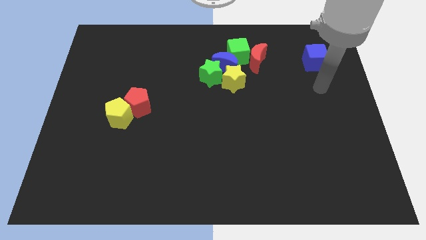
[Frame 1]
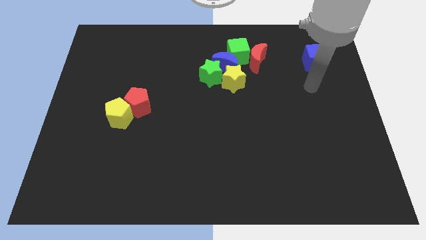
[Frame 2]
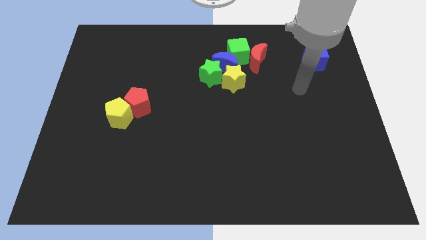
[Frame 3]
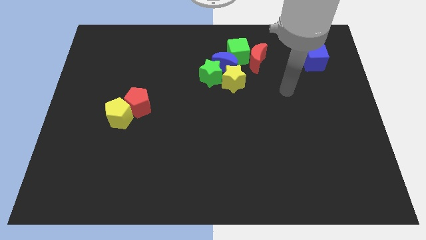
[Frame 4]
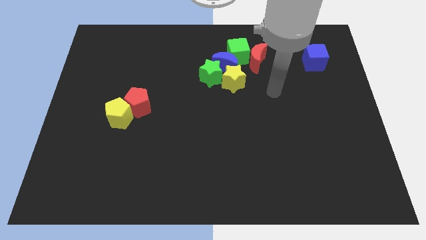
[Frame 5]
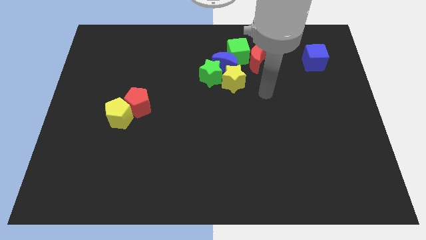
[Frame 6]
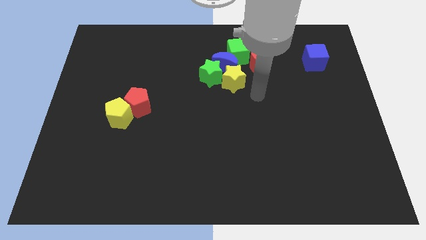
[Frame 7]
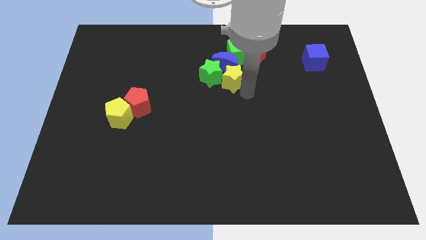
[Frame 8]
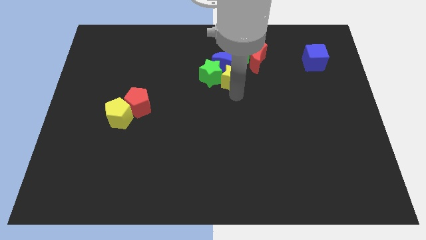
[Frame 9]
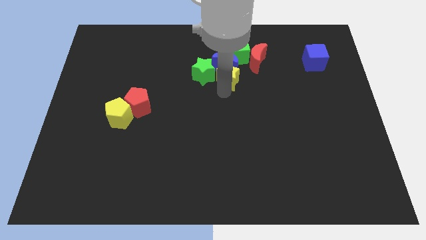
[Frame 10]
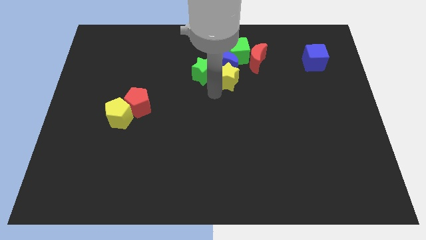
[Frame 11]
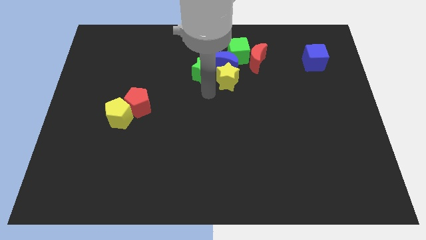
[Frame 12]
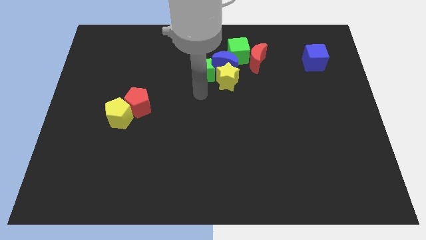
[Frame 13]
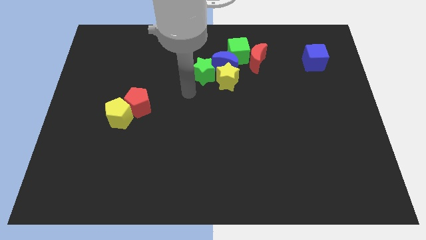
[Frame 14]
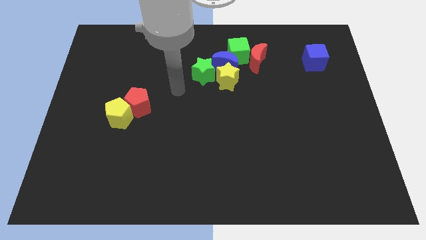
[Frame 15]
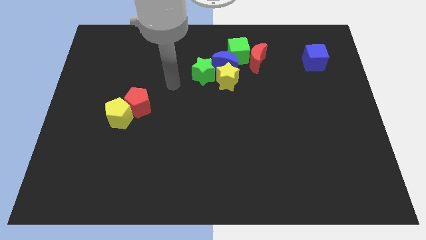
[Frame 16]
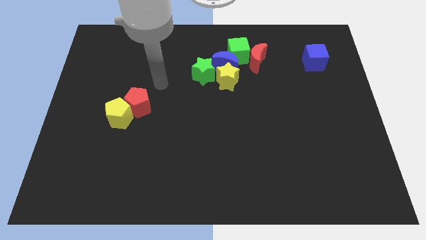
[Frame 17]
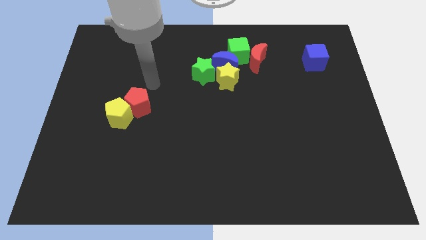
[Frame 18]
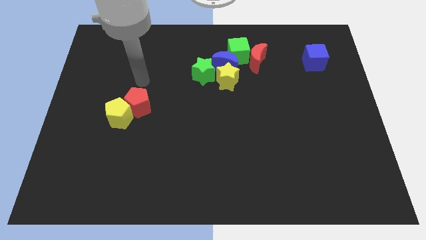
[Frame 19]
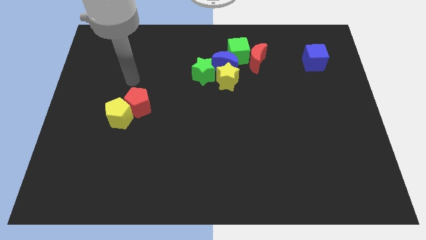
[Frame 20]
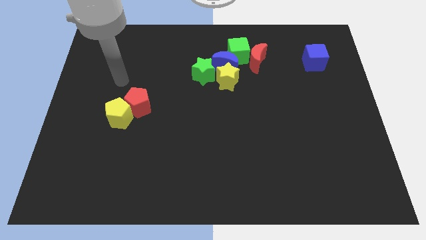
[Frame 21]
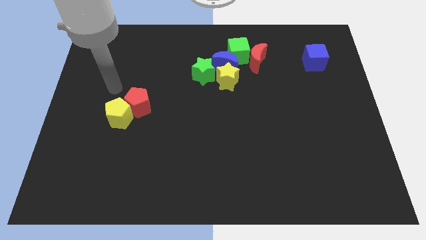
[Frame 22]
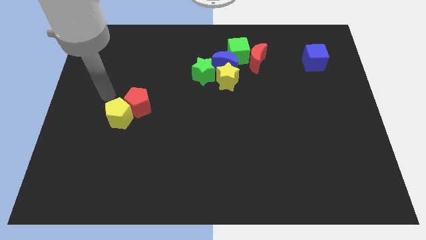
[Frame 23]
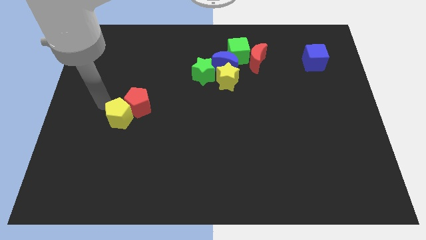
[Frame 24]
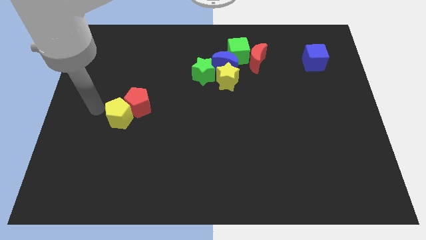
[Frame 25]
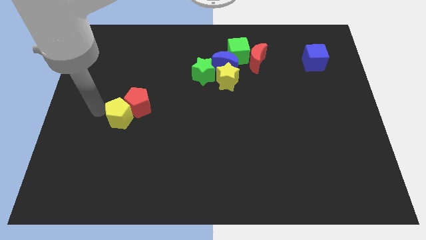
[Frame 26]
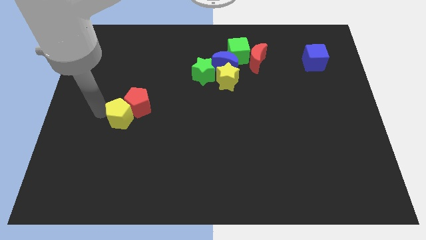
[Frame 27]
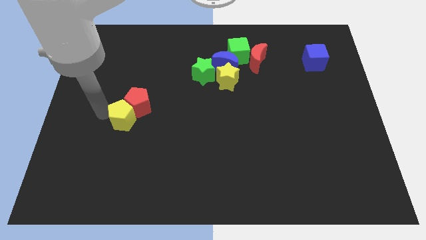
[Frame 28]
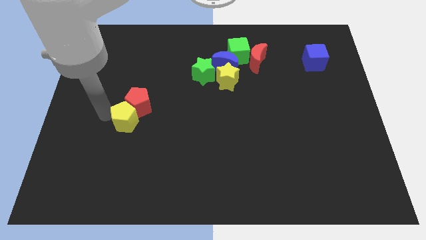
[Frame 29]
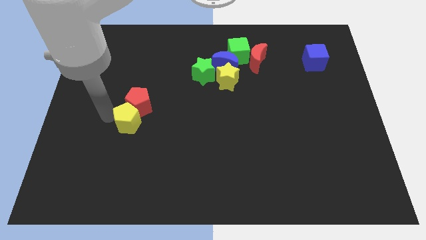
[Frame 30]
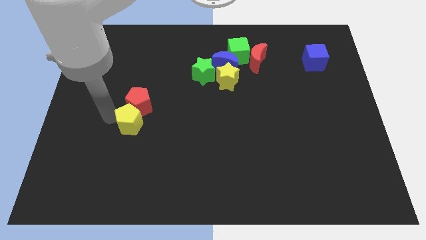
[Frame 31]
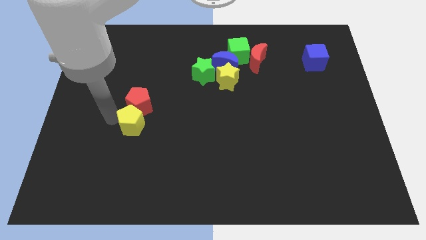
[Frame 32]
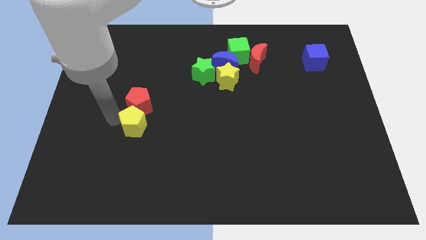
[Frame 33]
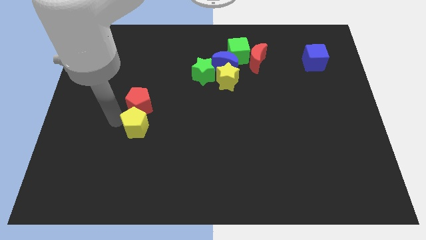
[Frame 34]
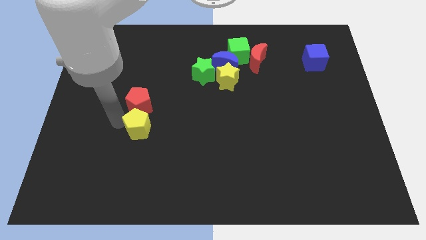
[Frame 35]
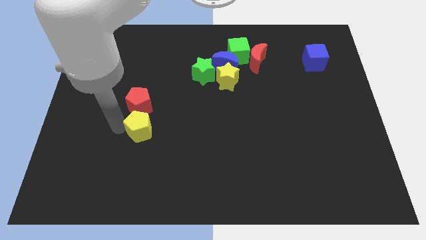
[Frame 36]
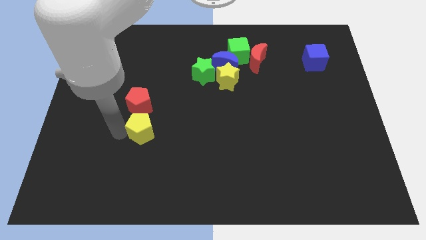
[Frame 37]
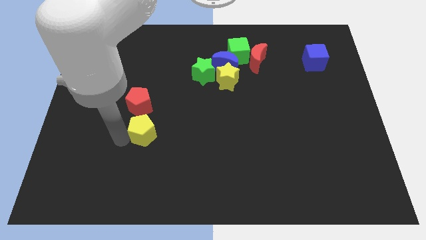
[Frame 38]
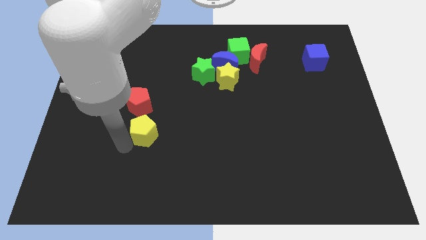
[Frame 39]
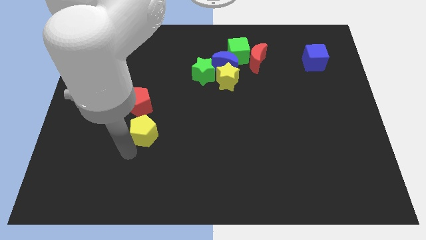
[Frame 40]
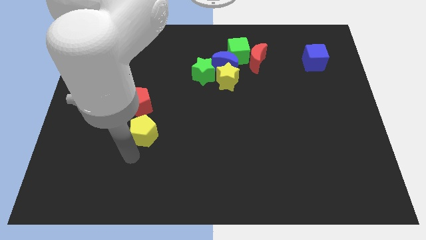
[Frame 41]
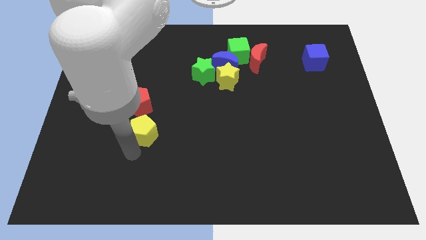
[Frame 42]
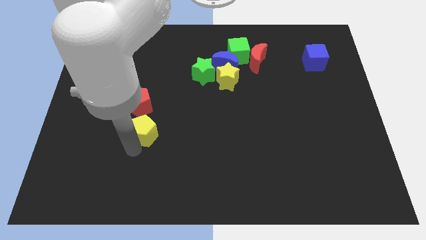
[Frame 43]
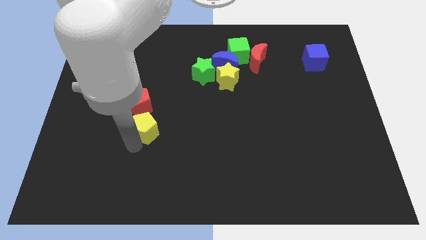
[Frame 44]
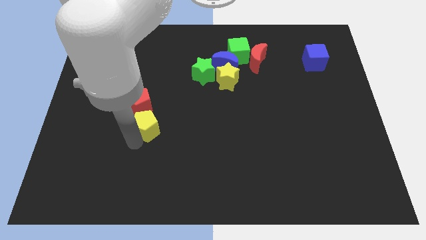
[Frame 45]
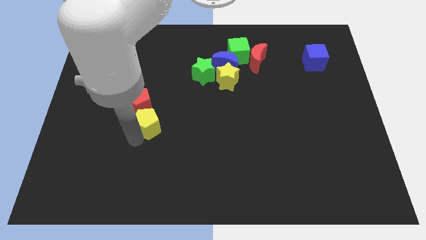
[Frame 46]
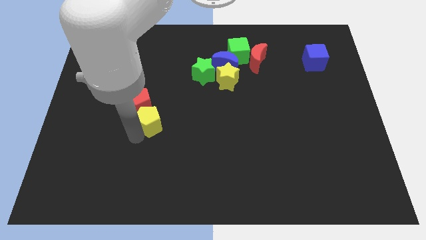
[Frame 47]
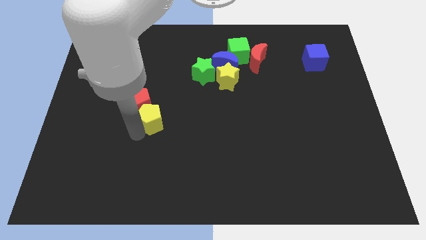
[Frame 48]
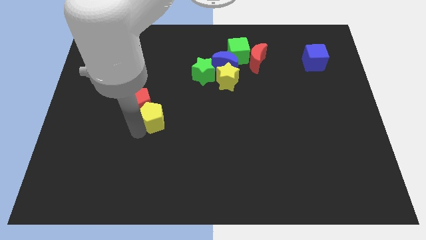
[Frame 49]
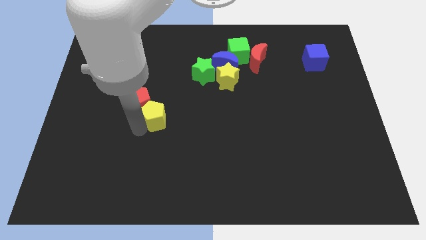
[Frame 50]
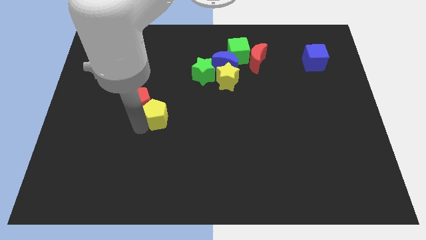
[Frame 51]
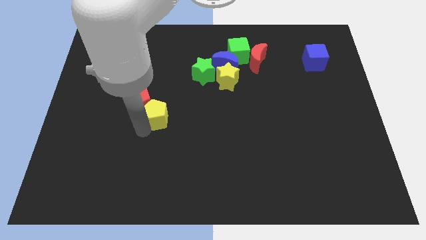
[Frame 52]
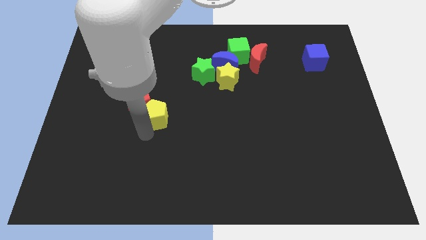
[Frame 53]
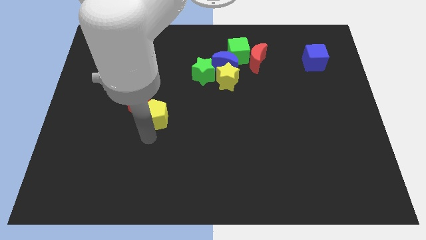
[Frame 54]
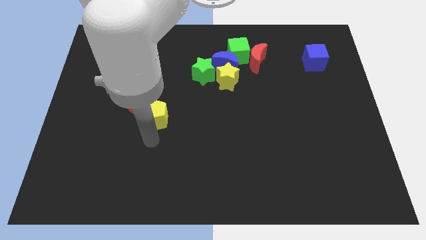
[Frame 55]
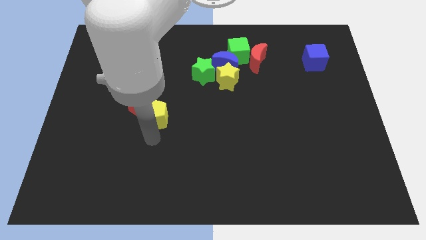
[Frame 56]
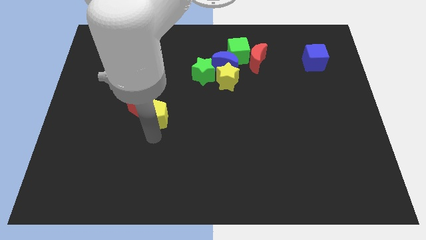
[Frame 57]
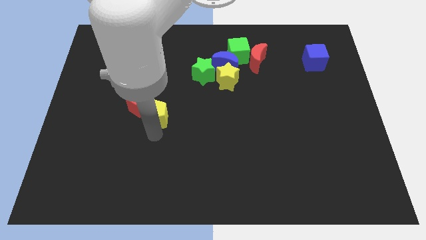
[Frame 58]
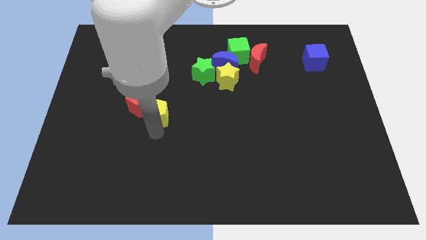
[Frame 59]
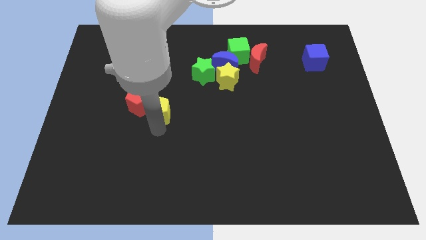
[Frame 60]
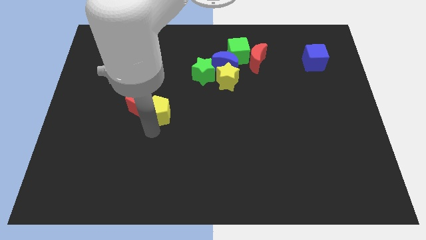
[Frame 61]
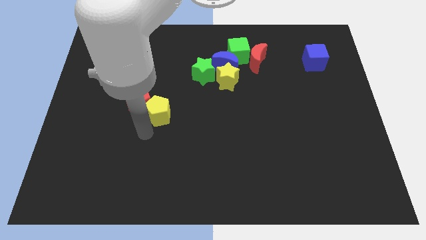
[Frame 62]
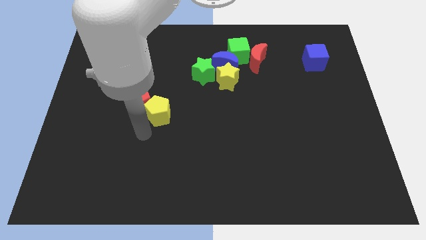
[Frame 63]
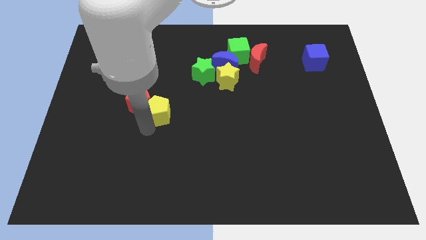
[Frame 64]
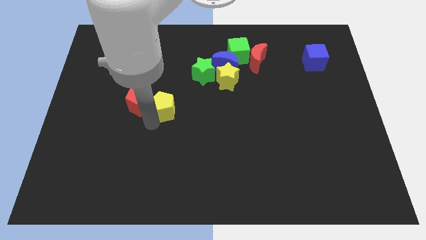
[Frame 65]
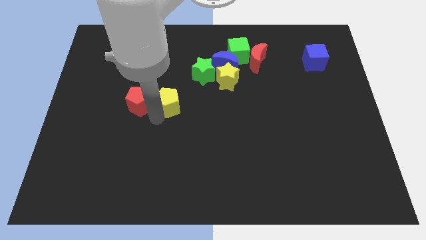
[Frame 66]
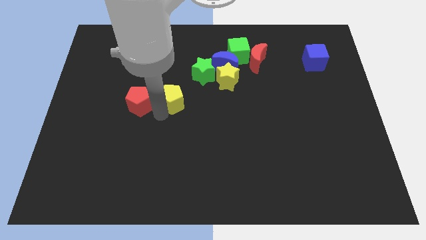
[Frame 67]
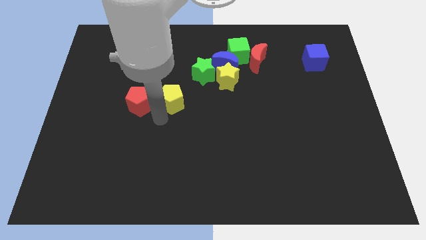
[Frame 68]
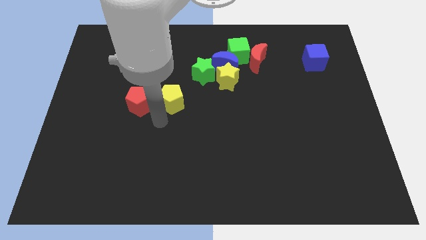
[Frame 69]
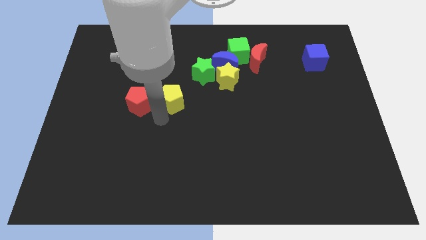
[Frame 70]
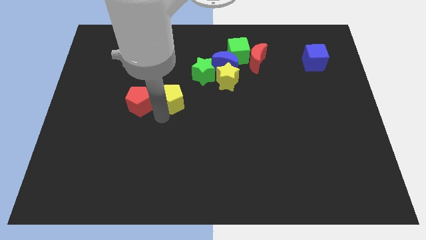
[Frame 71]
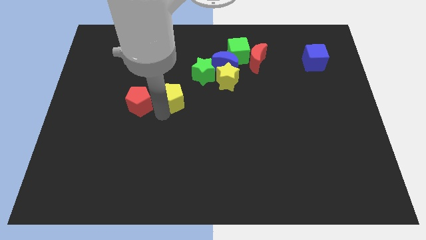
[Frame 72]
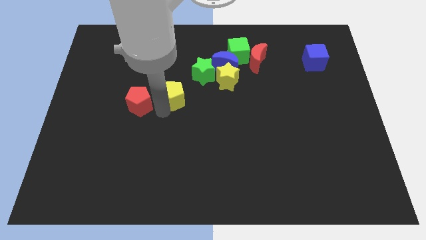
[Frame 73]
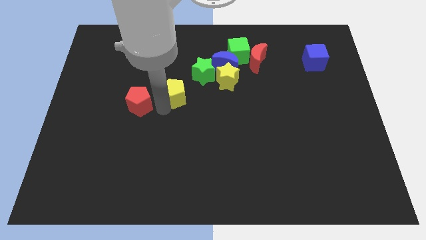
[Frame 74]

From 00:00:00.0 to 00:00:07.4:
move the yellow pentagon to the left of the yellow star
